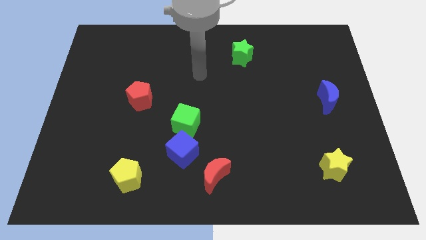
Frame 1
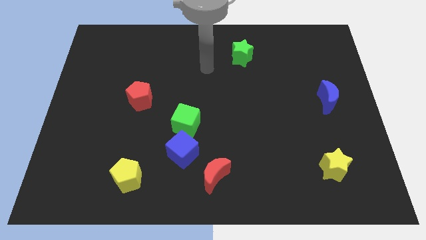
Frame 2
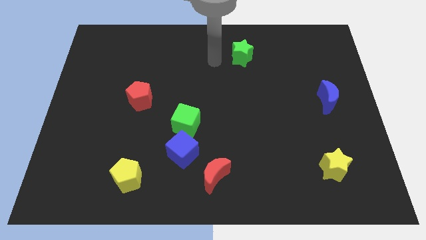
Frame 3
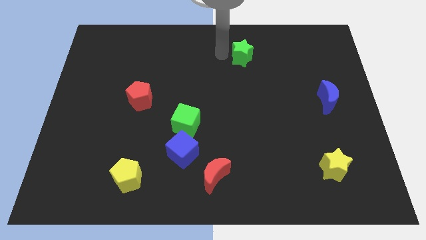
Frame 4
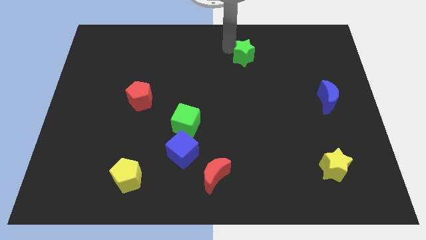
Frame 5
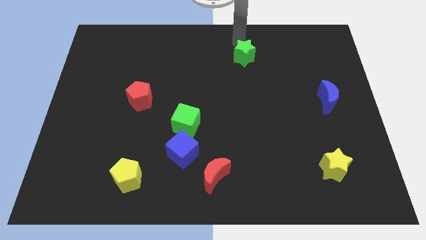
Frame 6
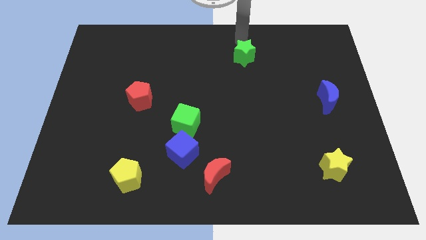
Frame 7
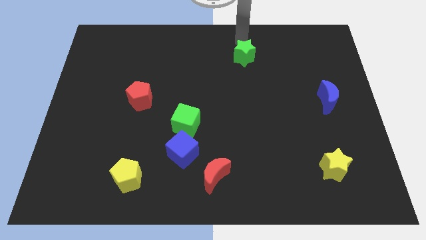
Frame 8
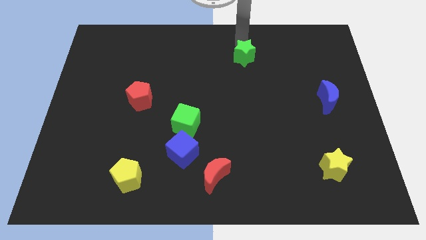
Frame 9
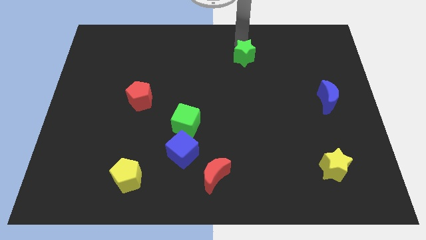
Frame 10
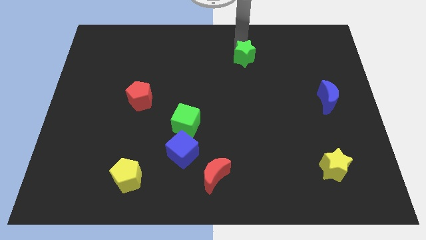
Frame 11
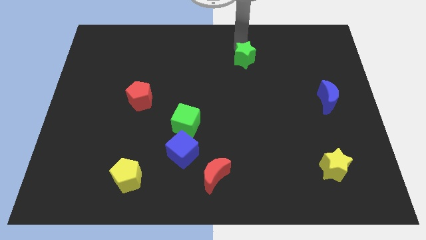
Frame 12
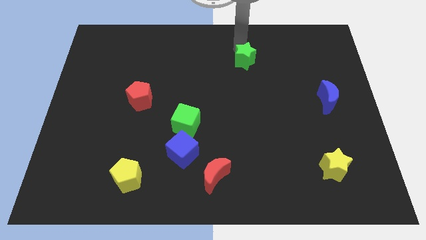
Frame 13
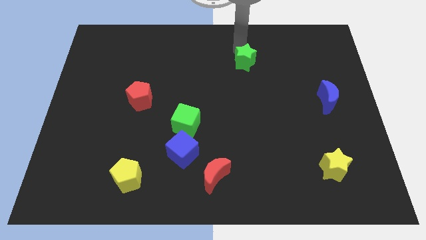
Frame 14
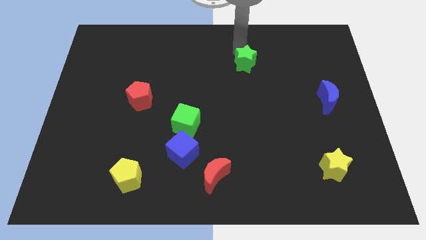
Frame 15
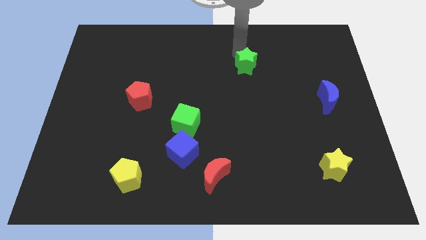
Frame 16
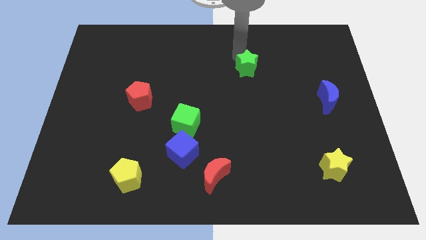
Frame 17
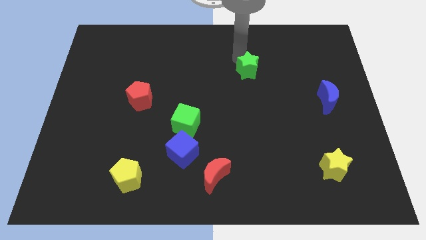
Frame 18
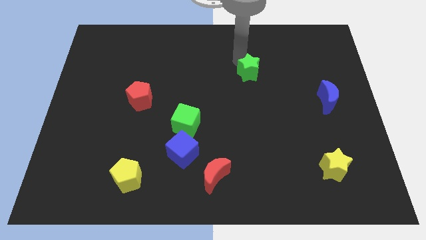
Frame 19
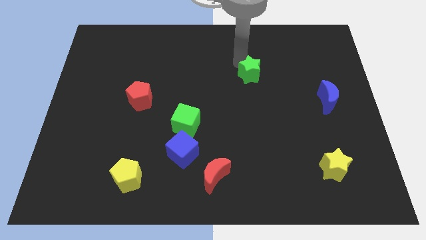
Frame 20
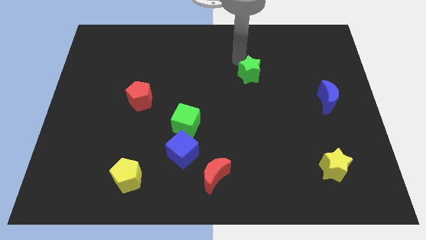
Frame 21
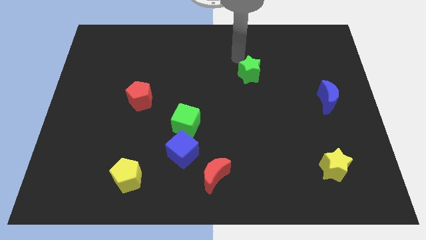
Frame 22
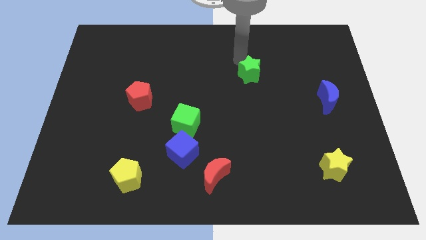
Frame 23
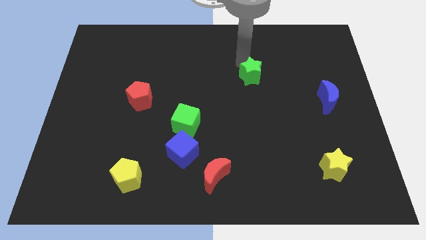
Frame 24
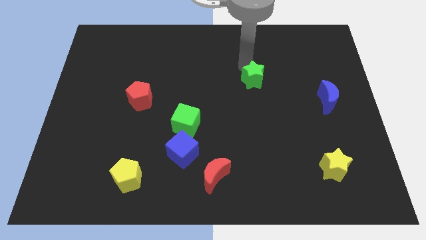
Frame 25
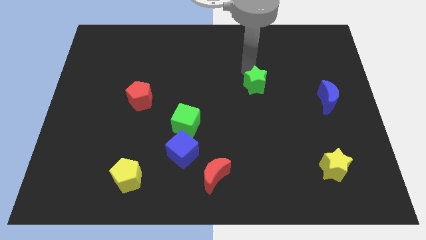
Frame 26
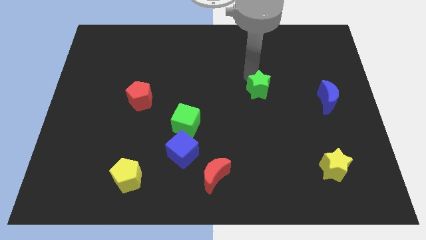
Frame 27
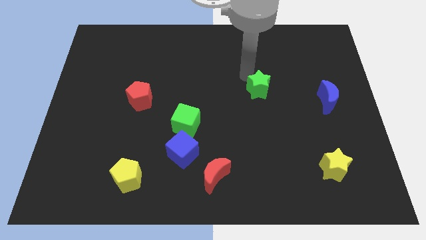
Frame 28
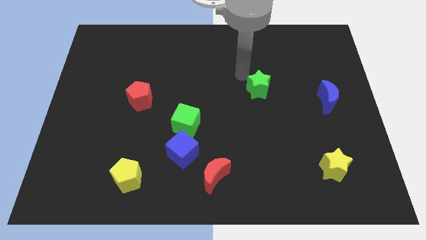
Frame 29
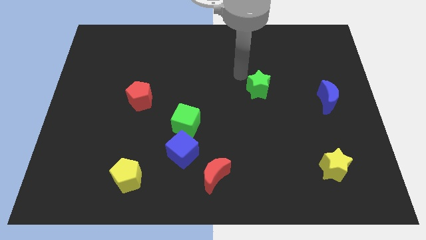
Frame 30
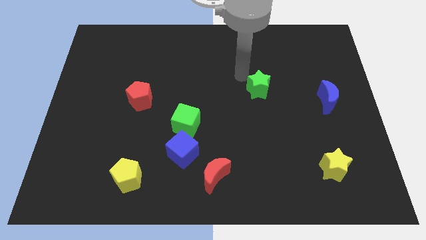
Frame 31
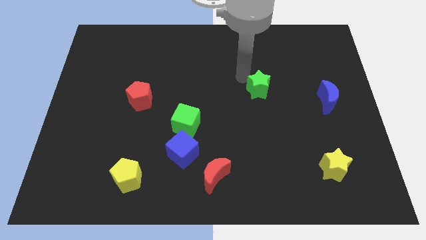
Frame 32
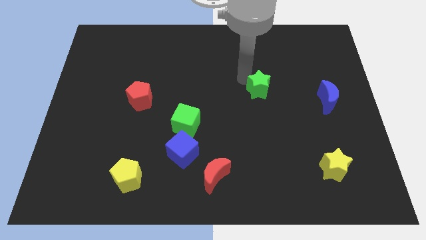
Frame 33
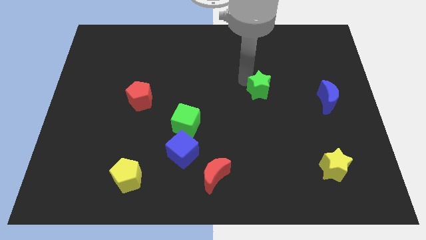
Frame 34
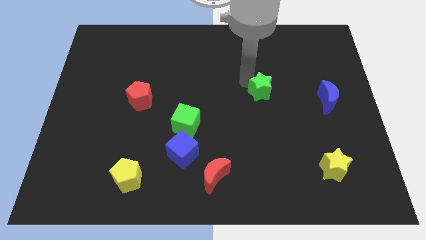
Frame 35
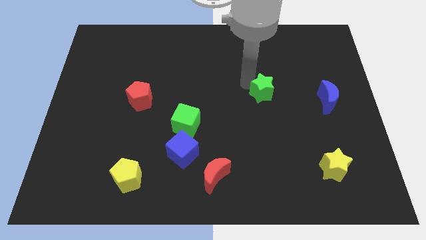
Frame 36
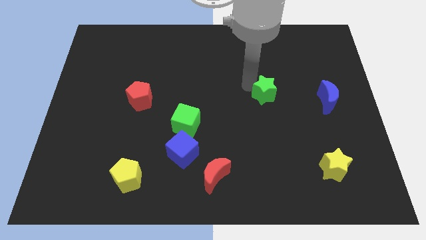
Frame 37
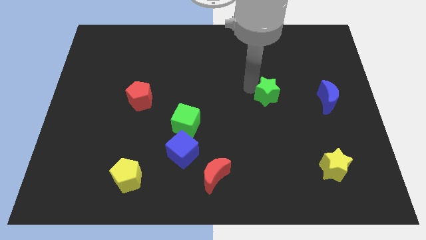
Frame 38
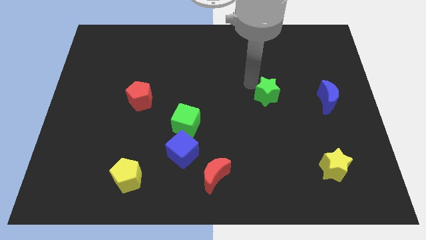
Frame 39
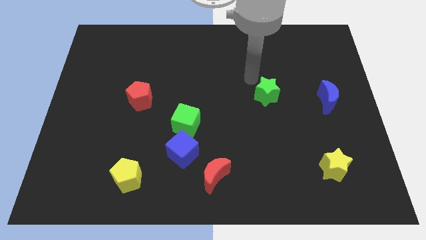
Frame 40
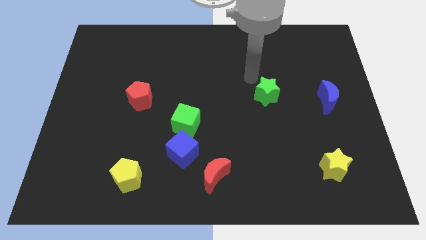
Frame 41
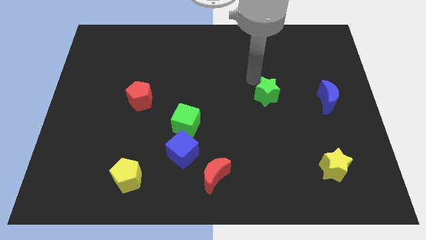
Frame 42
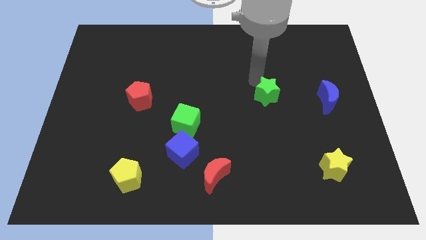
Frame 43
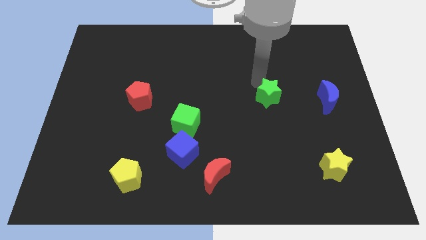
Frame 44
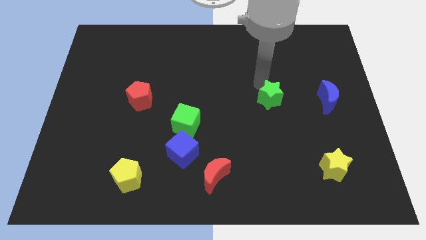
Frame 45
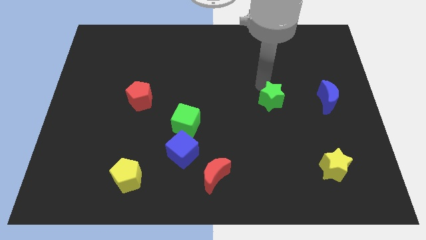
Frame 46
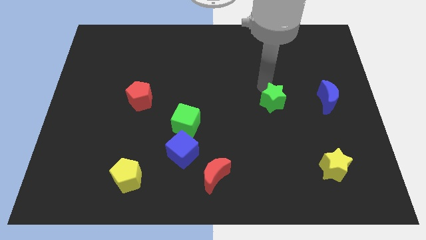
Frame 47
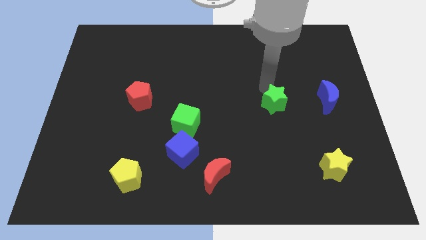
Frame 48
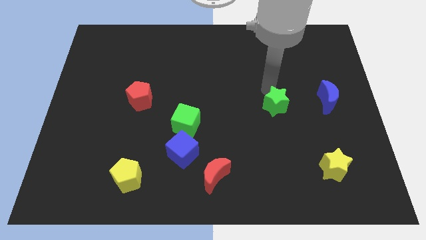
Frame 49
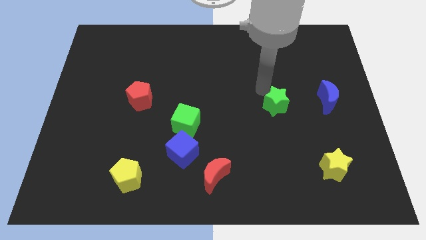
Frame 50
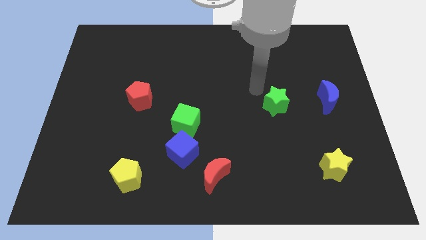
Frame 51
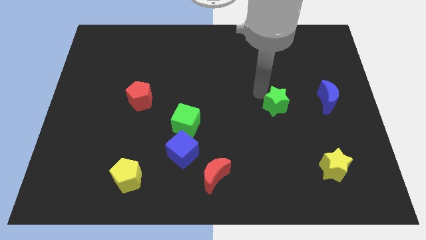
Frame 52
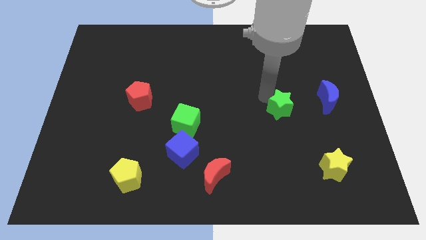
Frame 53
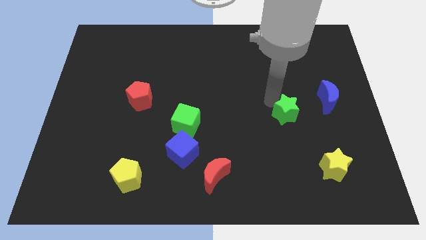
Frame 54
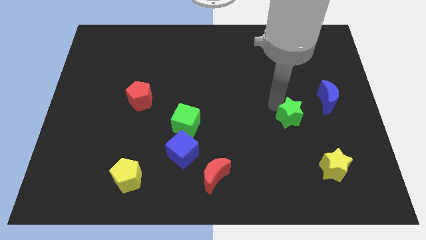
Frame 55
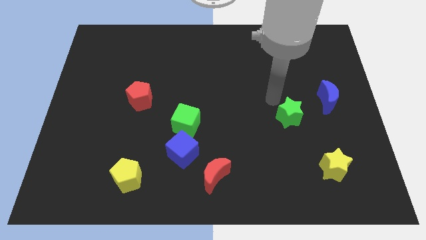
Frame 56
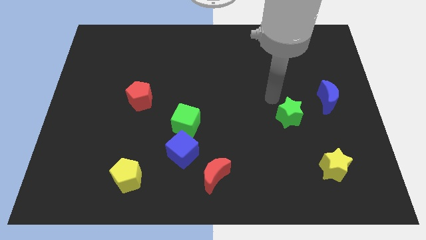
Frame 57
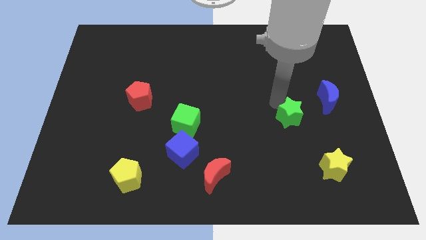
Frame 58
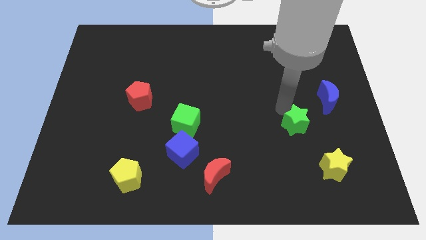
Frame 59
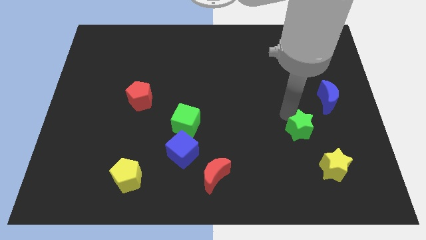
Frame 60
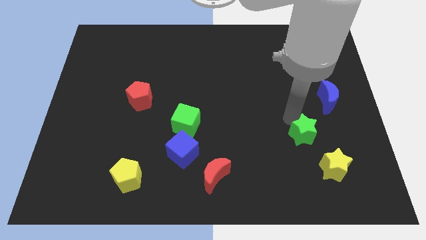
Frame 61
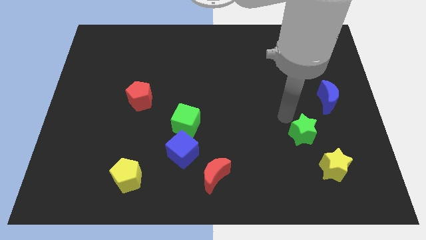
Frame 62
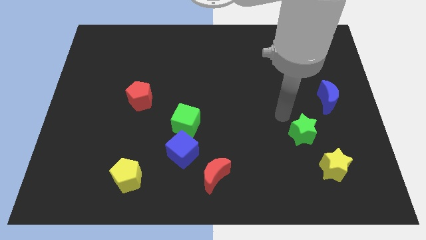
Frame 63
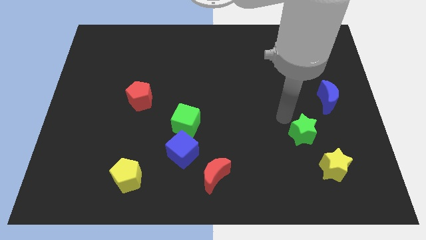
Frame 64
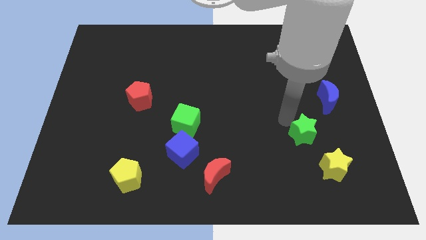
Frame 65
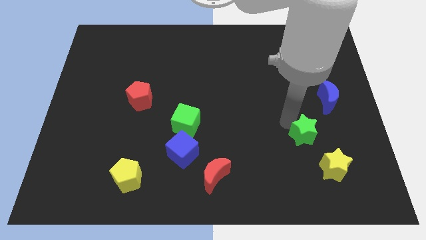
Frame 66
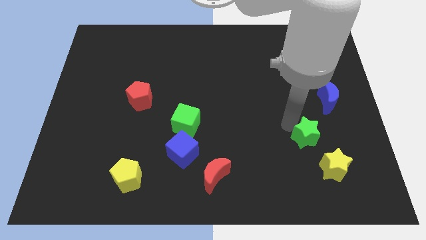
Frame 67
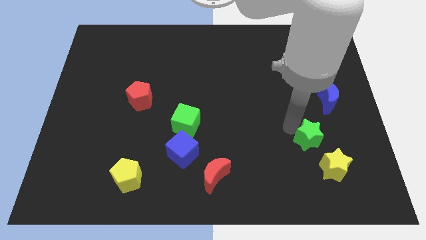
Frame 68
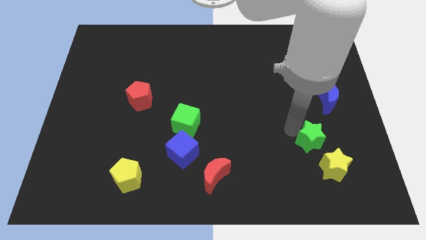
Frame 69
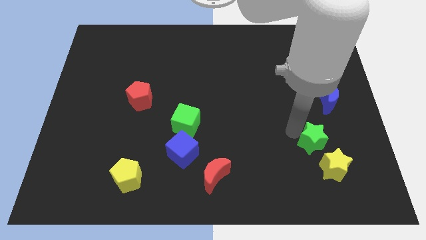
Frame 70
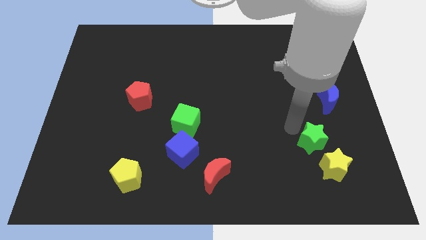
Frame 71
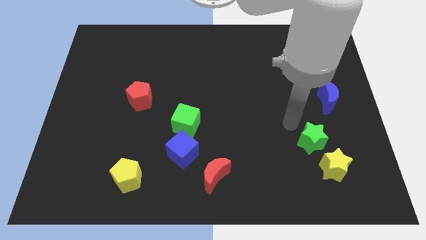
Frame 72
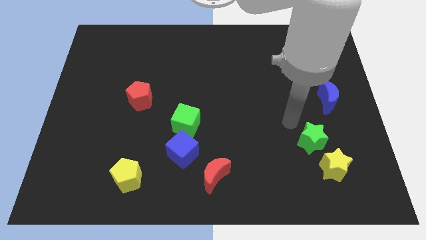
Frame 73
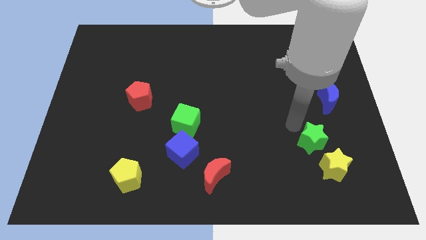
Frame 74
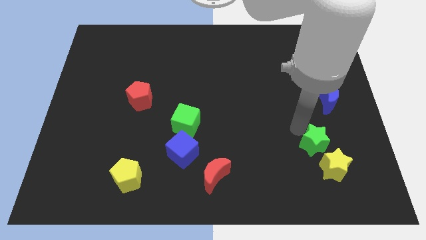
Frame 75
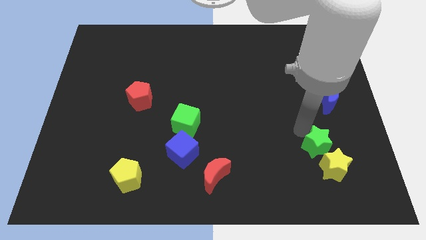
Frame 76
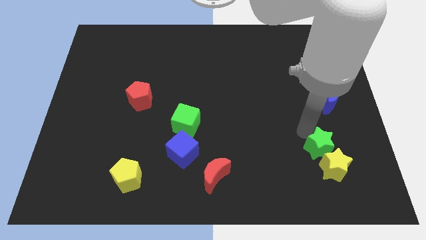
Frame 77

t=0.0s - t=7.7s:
move the green star towards the yellow star
